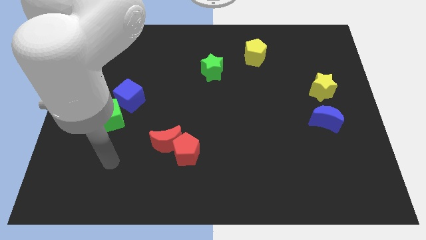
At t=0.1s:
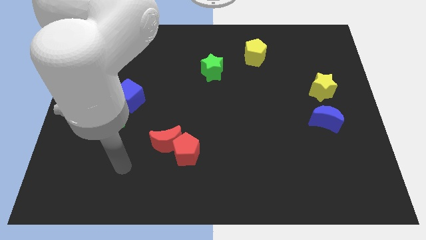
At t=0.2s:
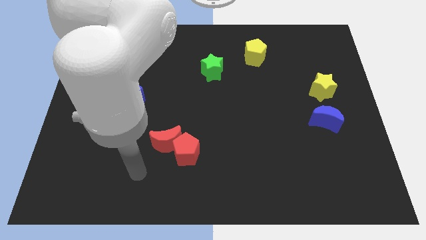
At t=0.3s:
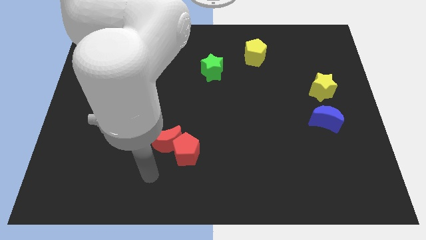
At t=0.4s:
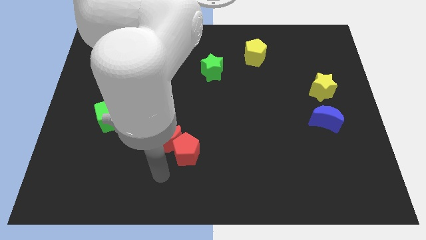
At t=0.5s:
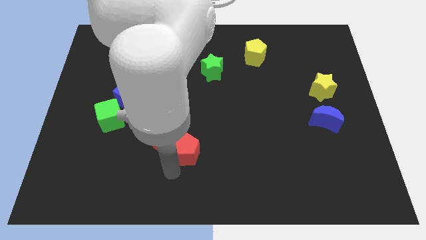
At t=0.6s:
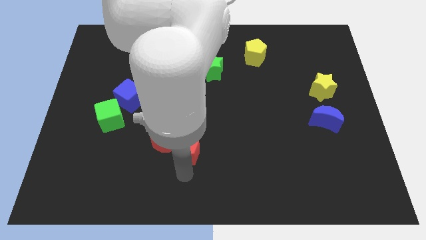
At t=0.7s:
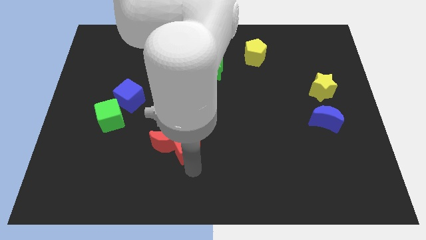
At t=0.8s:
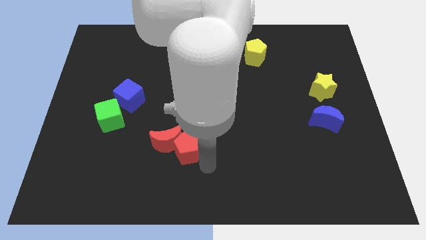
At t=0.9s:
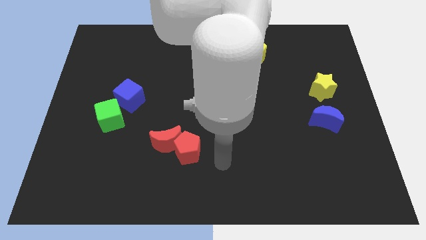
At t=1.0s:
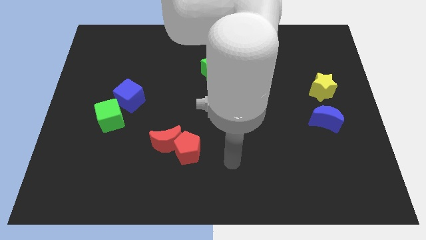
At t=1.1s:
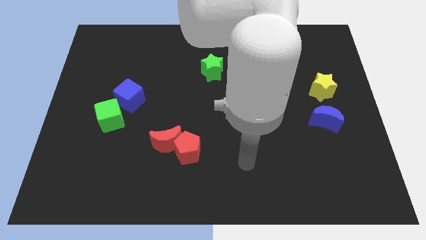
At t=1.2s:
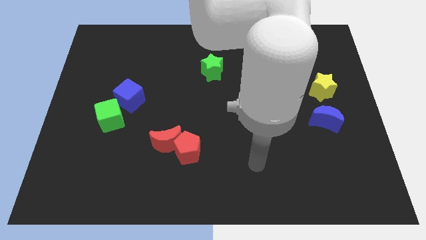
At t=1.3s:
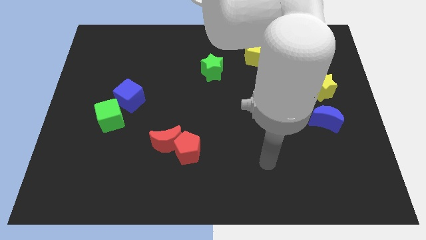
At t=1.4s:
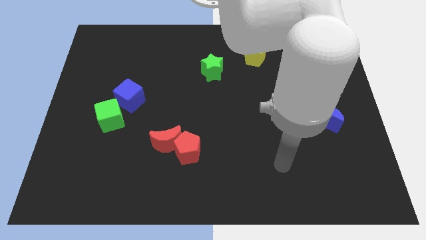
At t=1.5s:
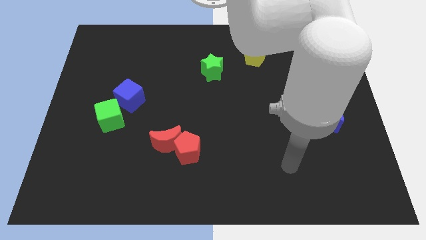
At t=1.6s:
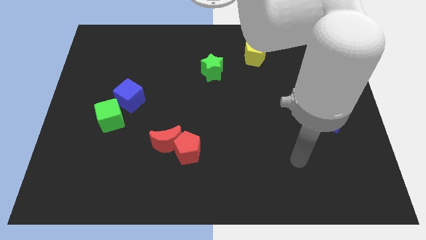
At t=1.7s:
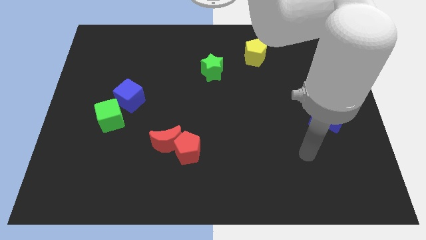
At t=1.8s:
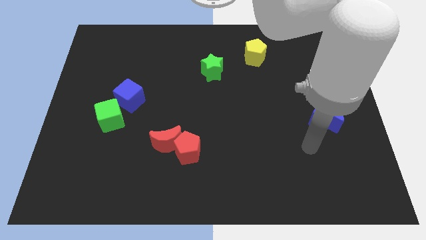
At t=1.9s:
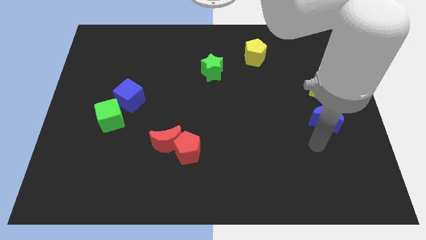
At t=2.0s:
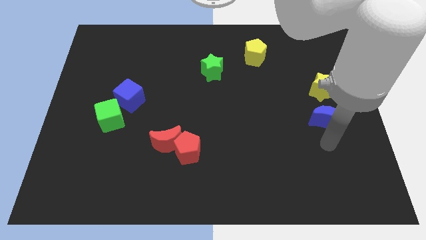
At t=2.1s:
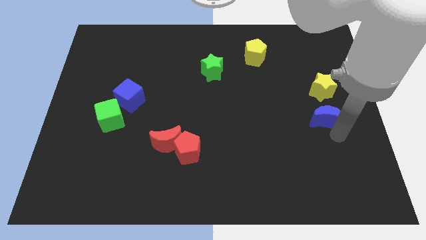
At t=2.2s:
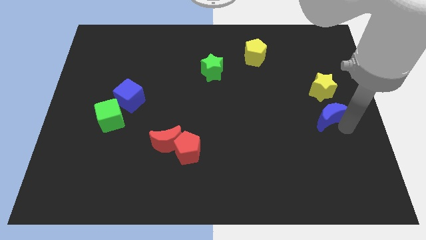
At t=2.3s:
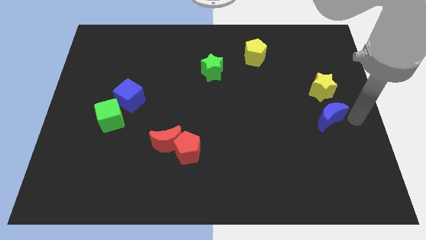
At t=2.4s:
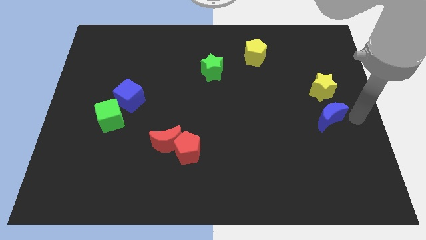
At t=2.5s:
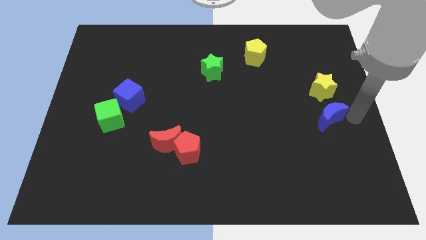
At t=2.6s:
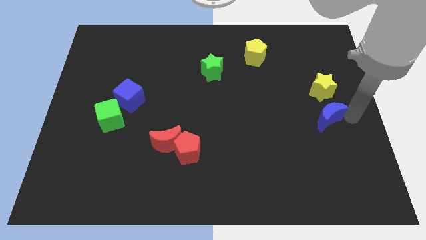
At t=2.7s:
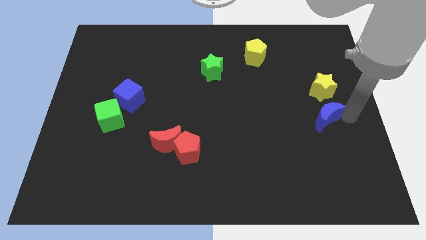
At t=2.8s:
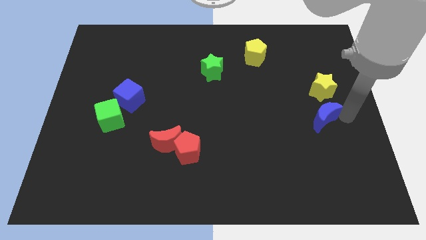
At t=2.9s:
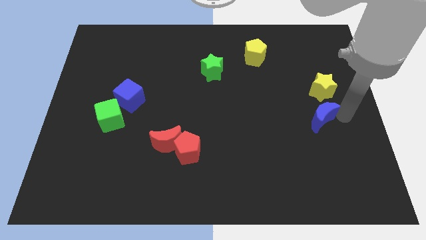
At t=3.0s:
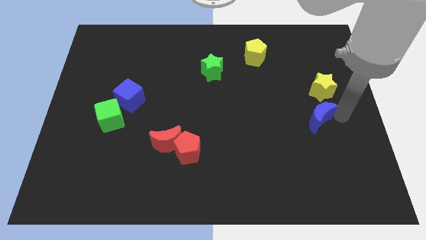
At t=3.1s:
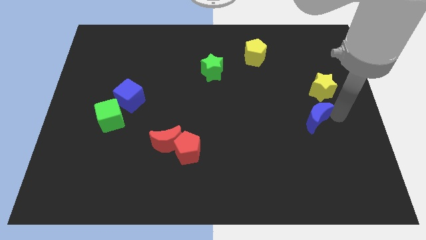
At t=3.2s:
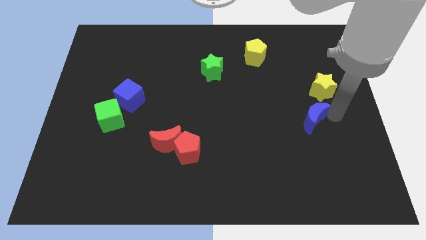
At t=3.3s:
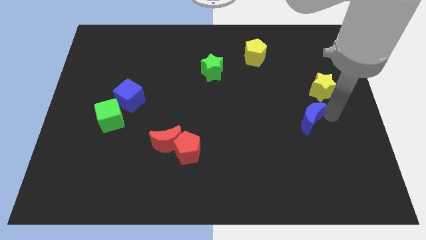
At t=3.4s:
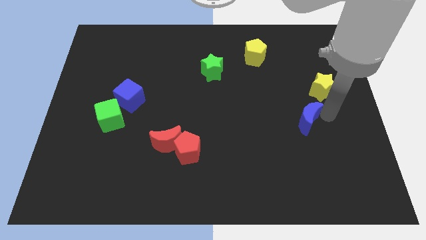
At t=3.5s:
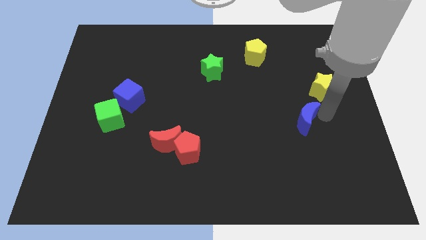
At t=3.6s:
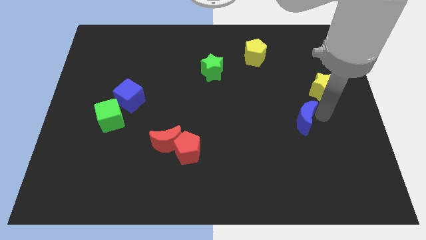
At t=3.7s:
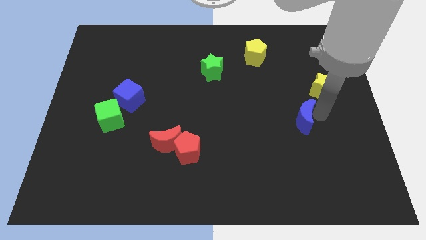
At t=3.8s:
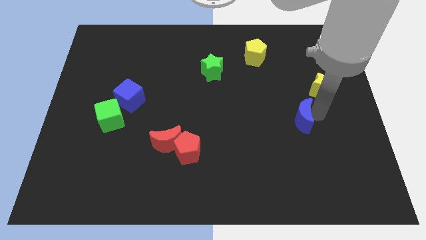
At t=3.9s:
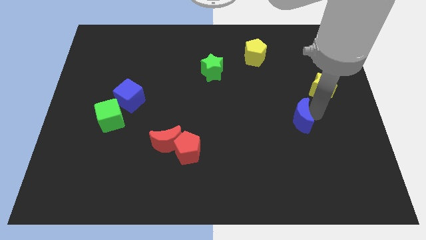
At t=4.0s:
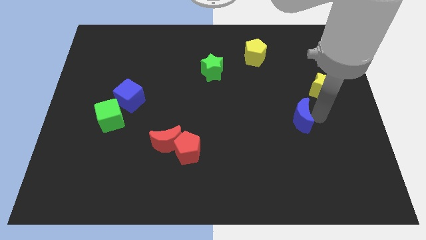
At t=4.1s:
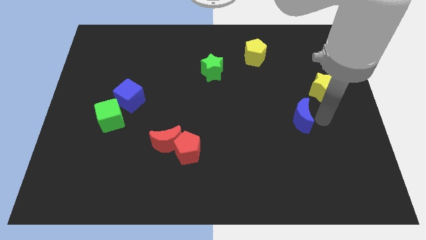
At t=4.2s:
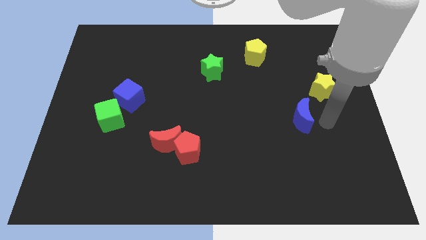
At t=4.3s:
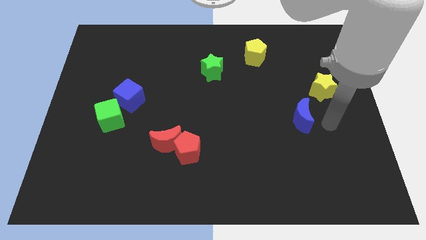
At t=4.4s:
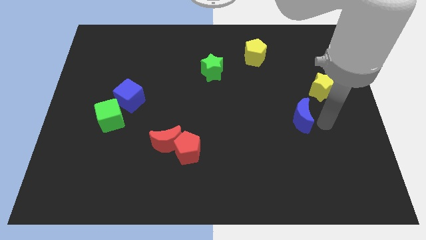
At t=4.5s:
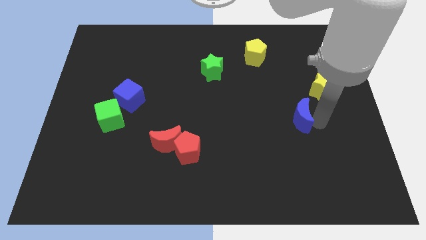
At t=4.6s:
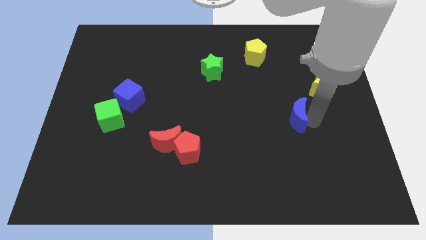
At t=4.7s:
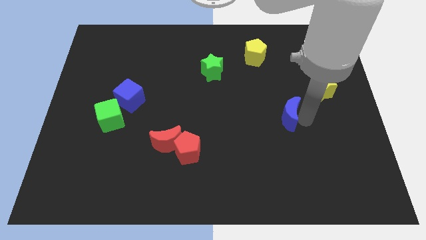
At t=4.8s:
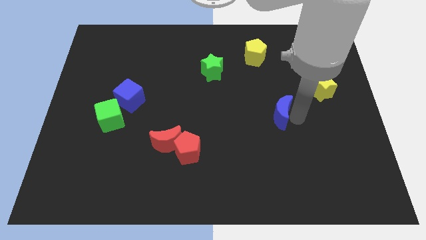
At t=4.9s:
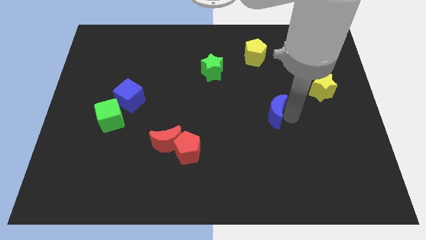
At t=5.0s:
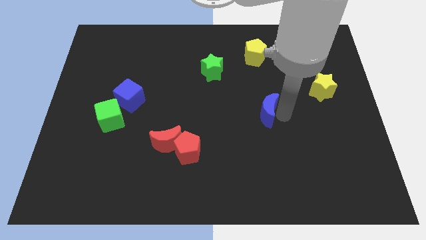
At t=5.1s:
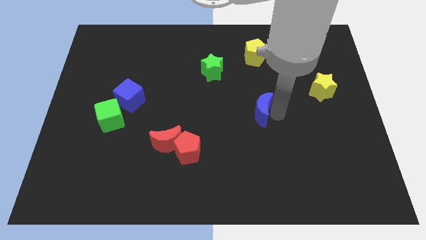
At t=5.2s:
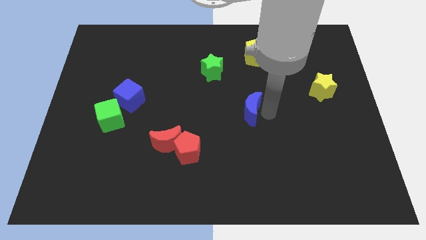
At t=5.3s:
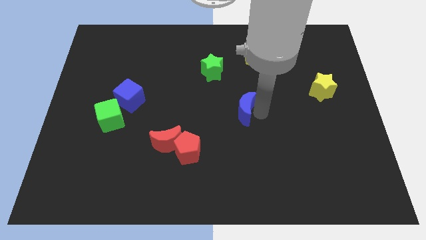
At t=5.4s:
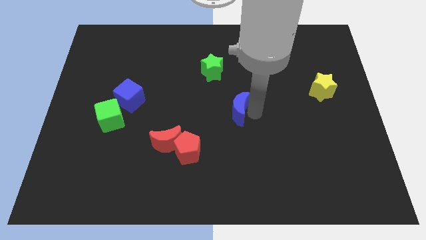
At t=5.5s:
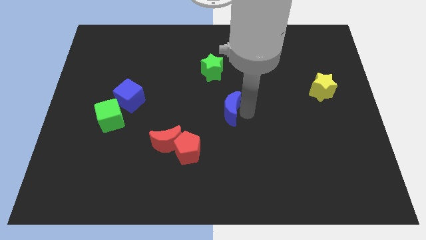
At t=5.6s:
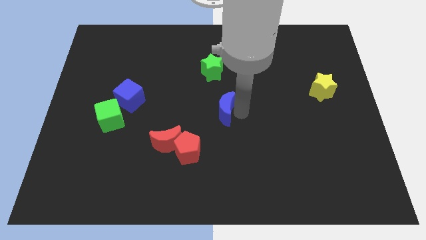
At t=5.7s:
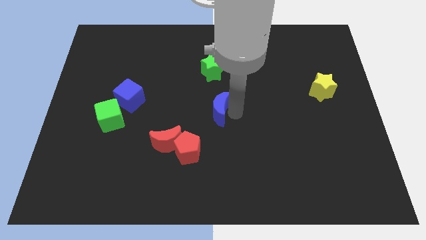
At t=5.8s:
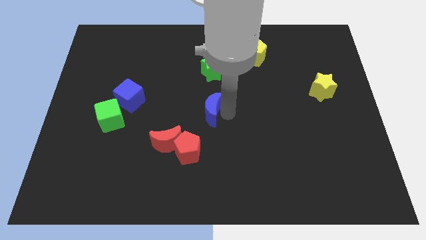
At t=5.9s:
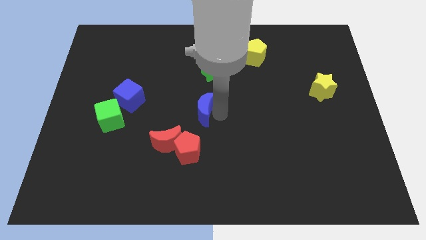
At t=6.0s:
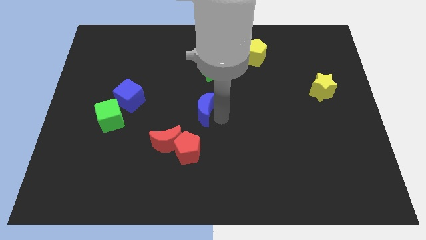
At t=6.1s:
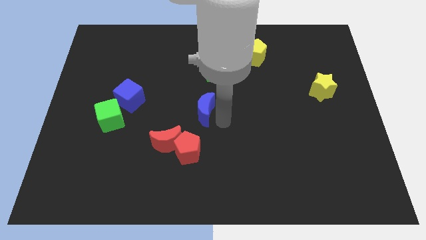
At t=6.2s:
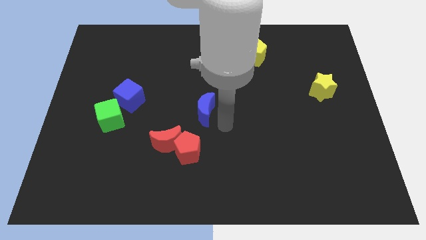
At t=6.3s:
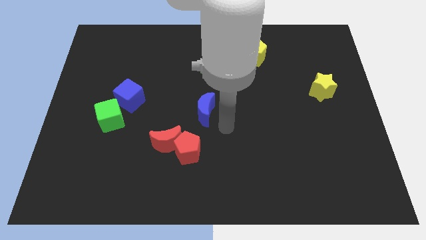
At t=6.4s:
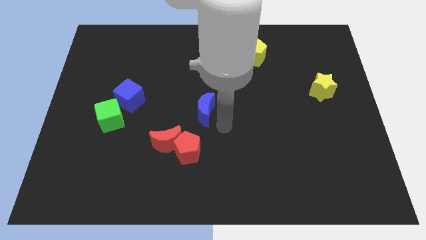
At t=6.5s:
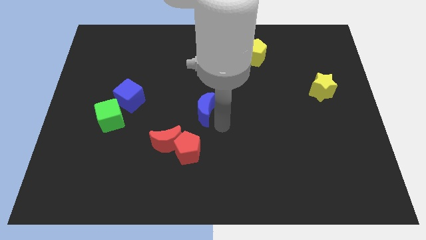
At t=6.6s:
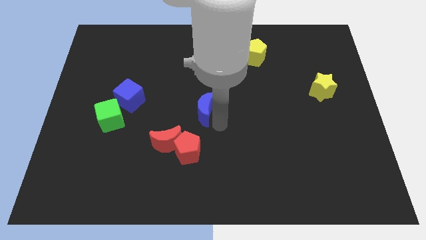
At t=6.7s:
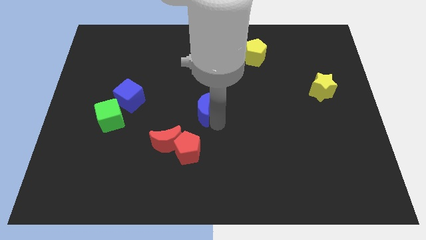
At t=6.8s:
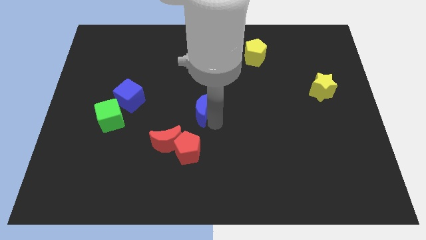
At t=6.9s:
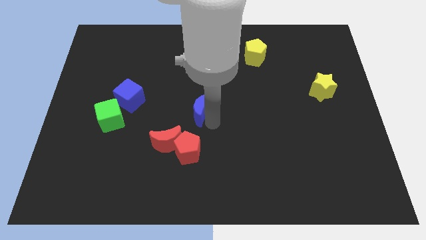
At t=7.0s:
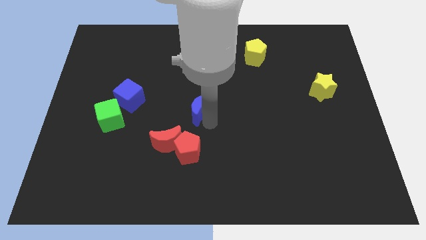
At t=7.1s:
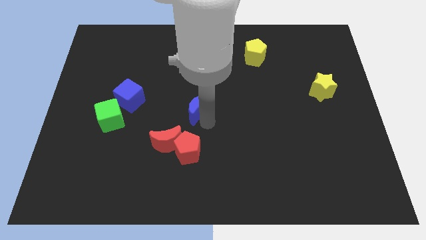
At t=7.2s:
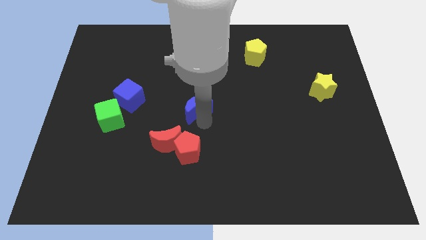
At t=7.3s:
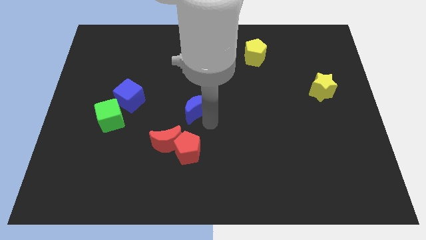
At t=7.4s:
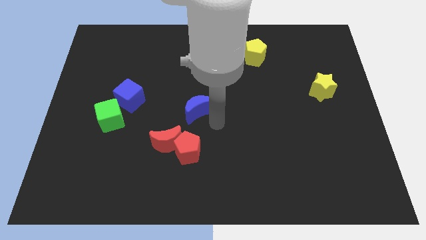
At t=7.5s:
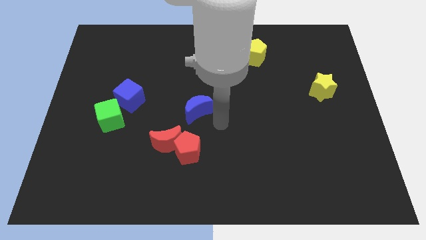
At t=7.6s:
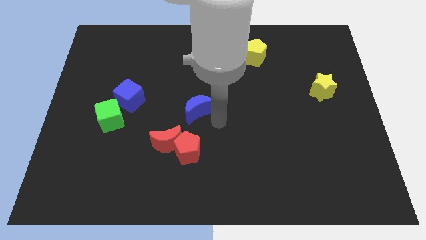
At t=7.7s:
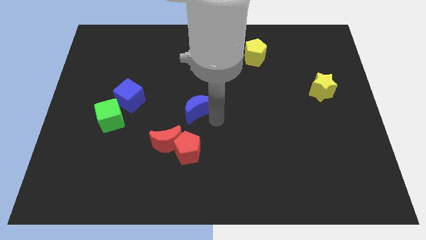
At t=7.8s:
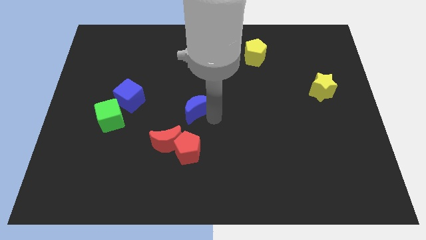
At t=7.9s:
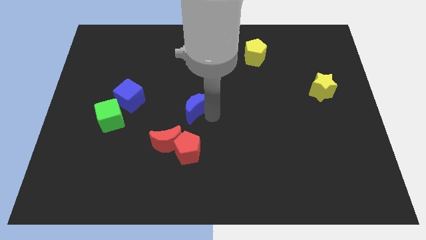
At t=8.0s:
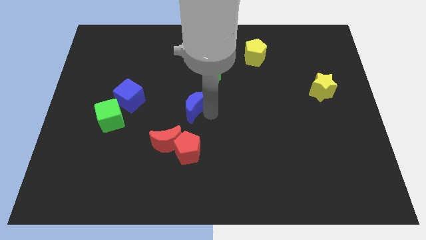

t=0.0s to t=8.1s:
put the blue moon to the right side of the blue cube
